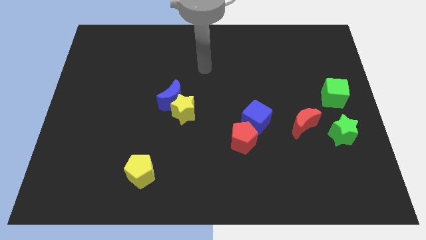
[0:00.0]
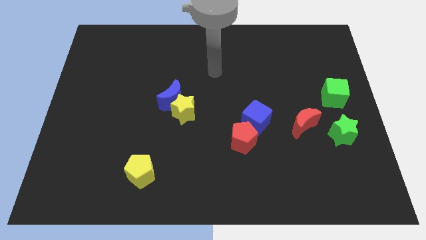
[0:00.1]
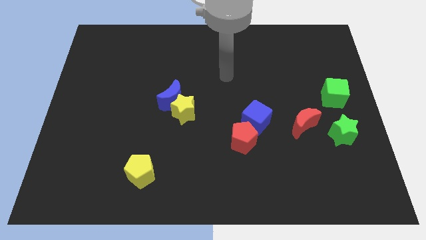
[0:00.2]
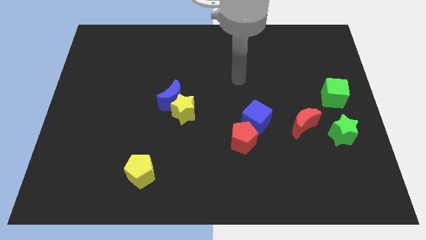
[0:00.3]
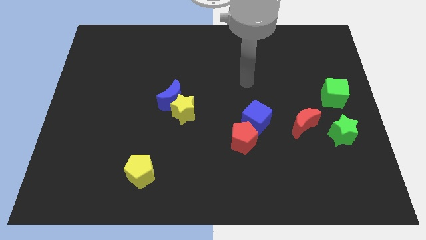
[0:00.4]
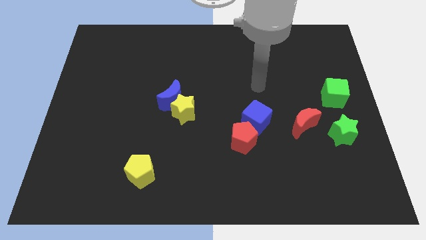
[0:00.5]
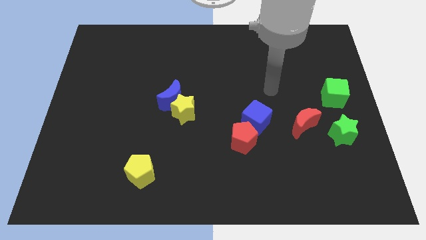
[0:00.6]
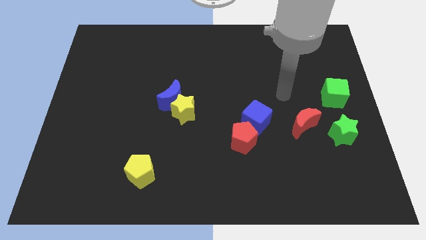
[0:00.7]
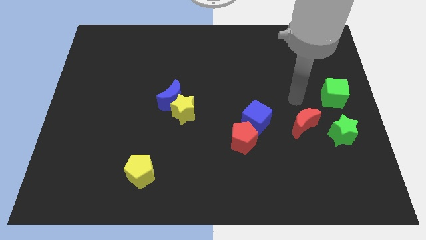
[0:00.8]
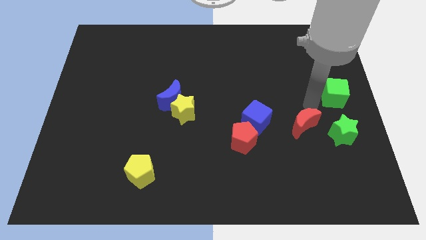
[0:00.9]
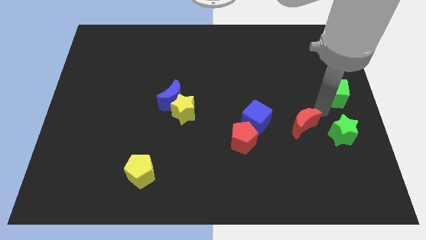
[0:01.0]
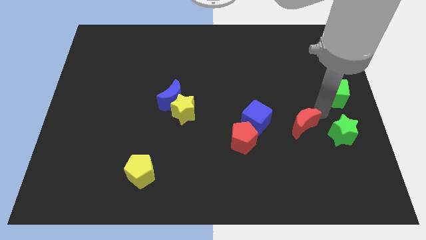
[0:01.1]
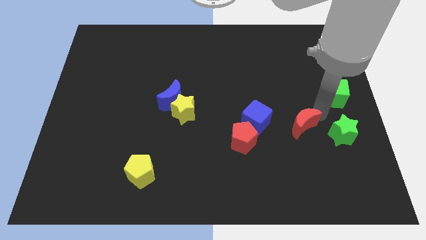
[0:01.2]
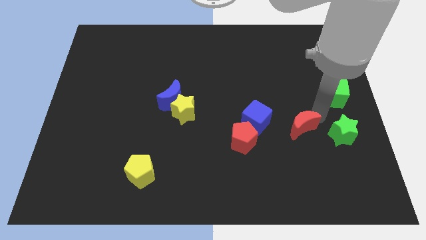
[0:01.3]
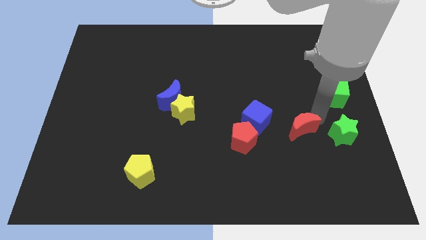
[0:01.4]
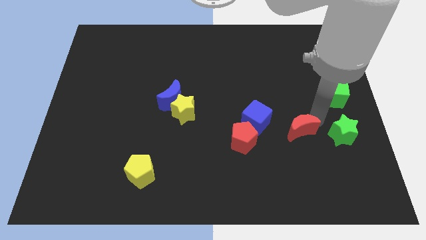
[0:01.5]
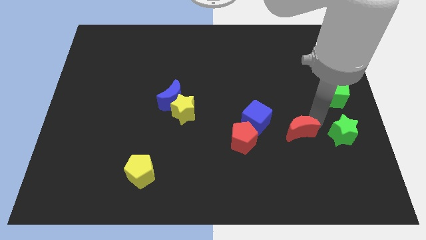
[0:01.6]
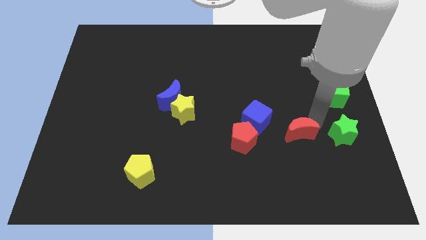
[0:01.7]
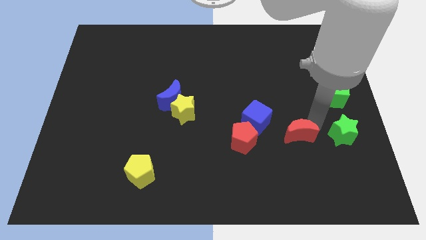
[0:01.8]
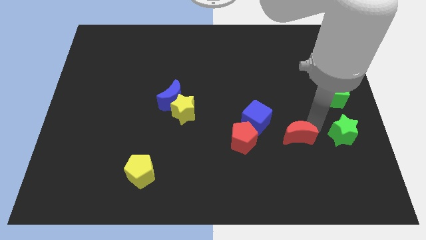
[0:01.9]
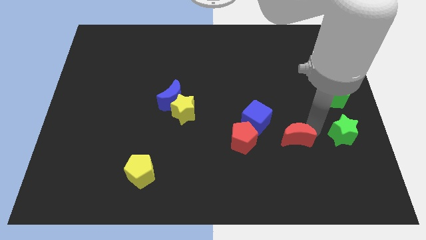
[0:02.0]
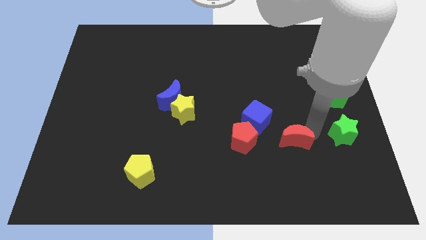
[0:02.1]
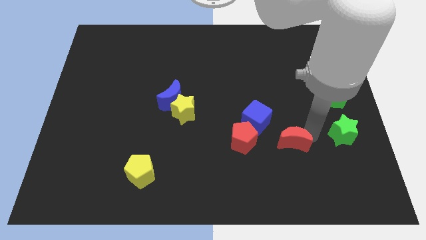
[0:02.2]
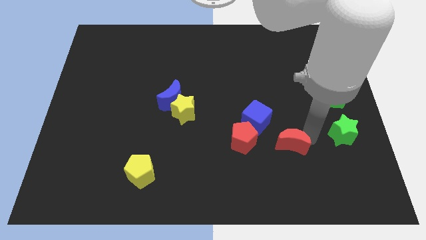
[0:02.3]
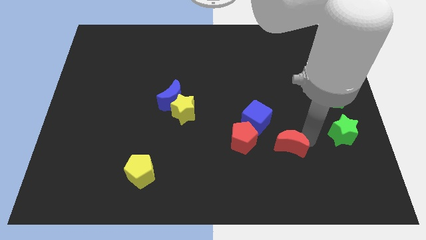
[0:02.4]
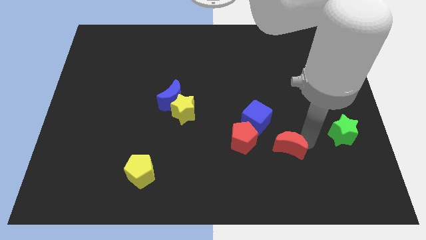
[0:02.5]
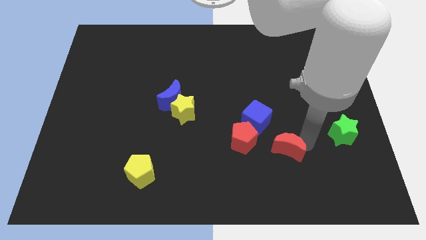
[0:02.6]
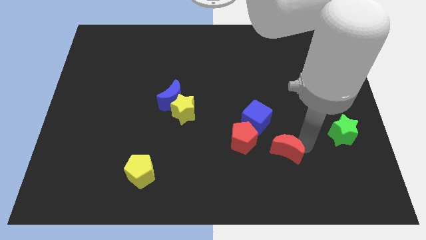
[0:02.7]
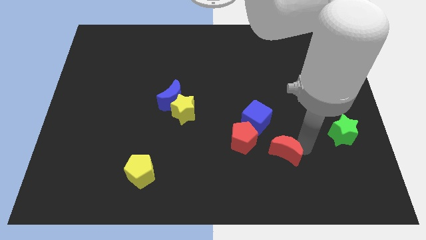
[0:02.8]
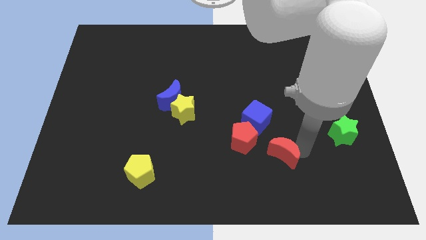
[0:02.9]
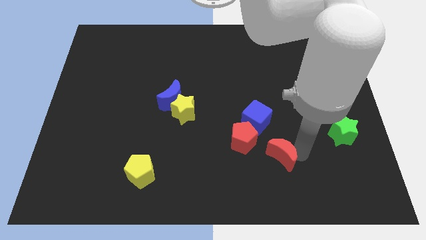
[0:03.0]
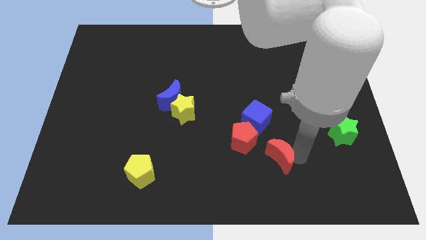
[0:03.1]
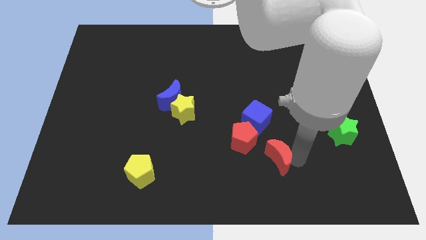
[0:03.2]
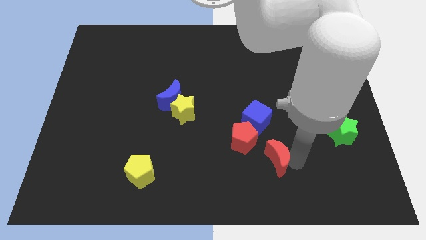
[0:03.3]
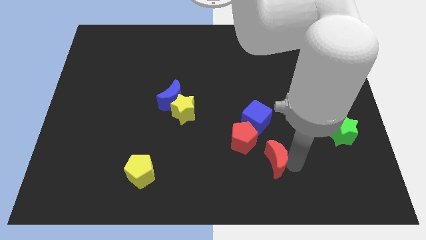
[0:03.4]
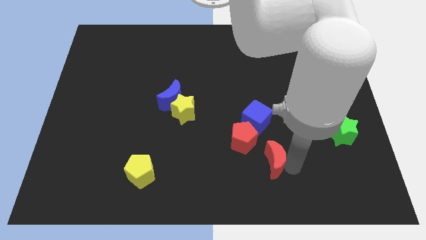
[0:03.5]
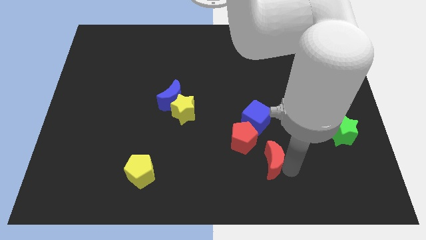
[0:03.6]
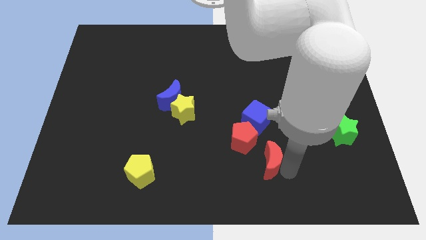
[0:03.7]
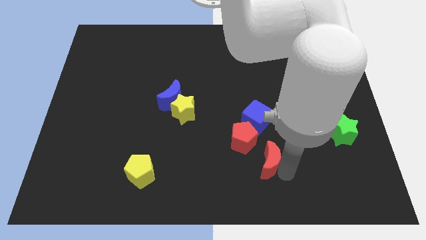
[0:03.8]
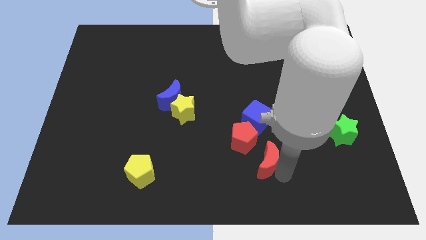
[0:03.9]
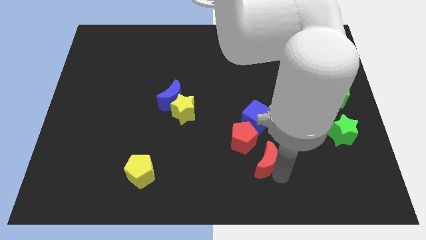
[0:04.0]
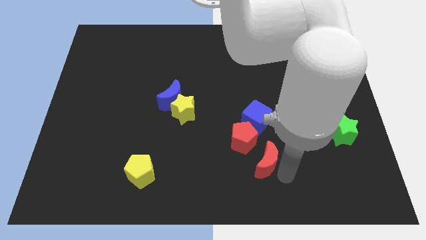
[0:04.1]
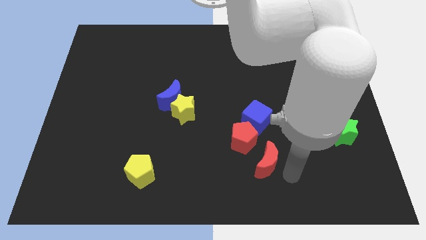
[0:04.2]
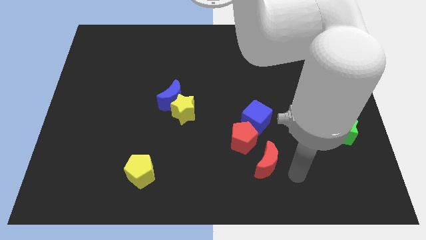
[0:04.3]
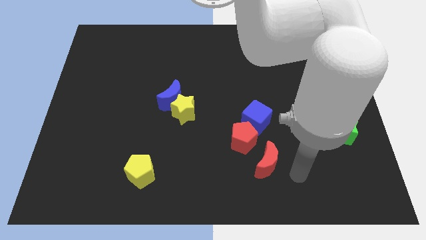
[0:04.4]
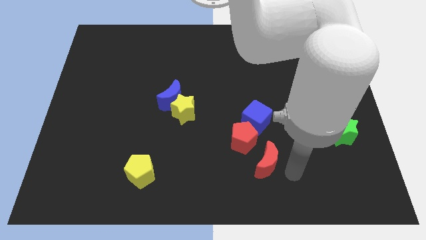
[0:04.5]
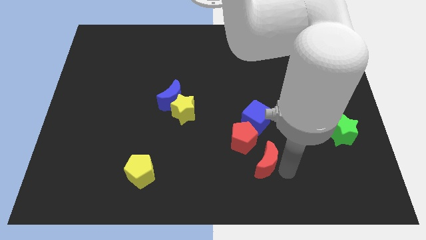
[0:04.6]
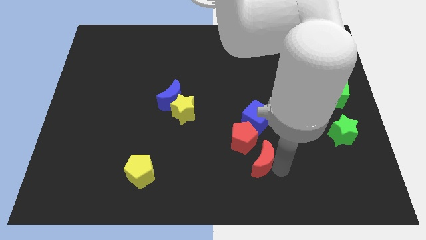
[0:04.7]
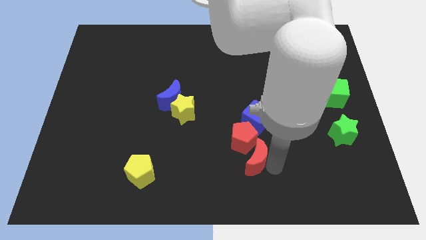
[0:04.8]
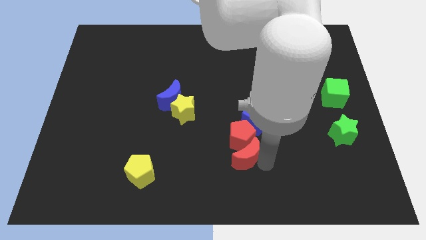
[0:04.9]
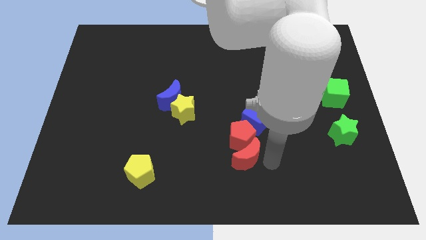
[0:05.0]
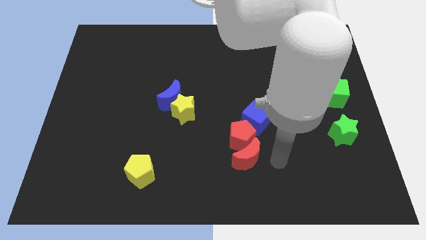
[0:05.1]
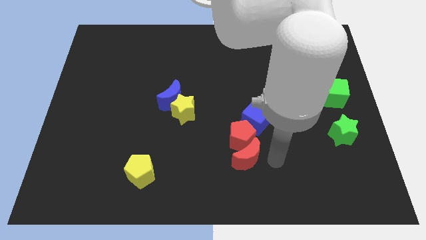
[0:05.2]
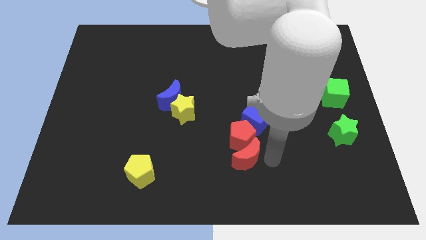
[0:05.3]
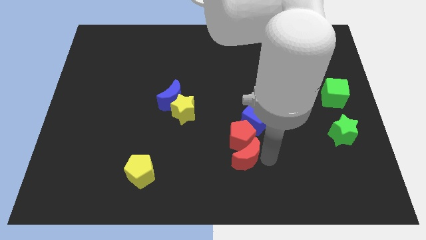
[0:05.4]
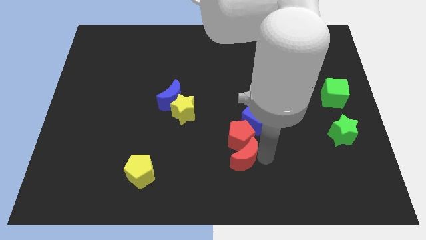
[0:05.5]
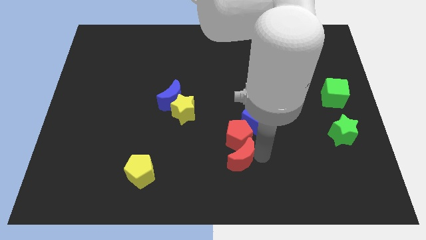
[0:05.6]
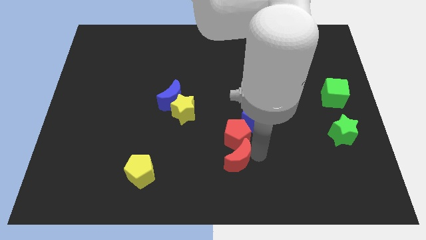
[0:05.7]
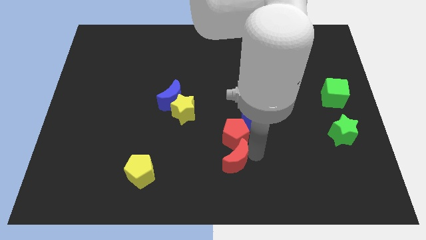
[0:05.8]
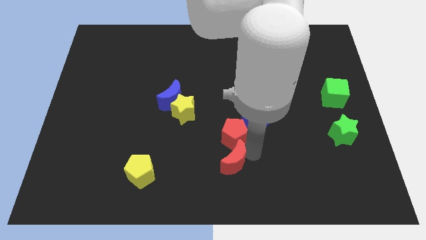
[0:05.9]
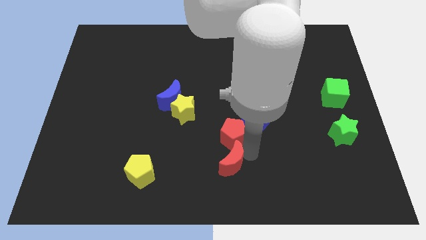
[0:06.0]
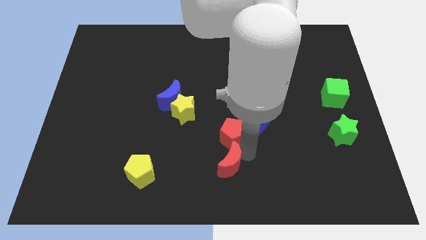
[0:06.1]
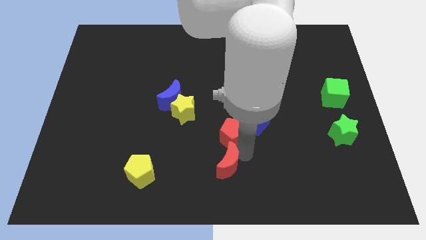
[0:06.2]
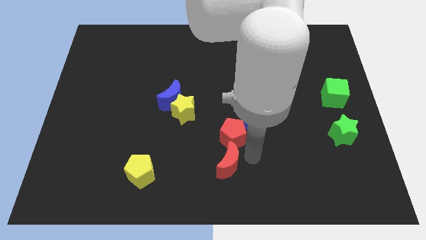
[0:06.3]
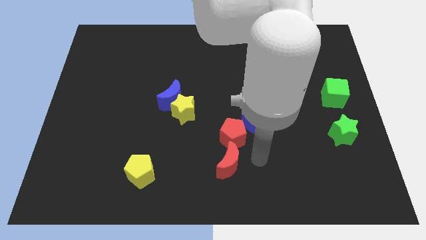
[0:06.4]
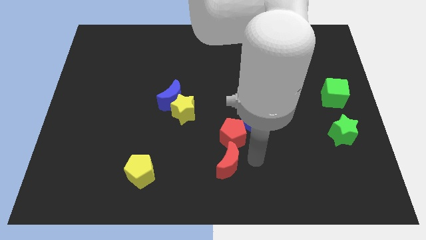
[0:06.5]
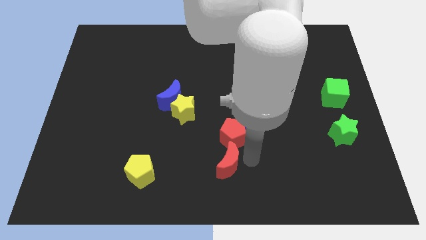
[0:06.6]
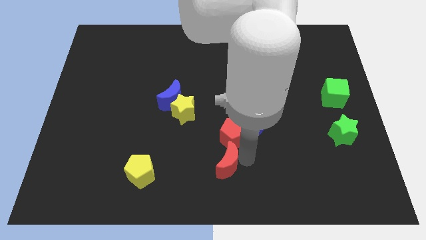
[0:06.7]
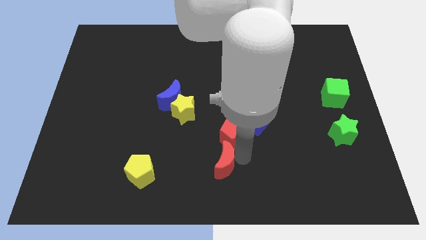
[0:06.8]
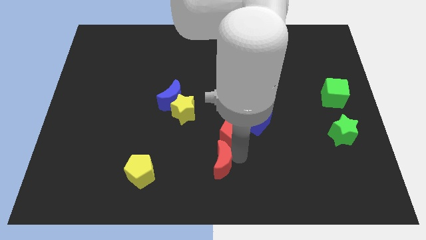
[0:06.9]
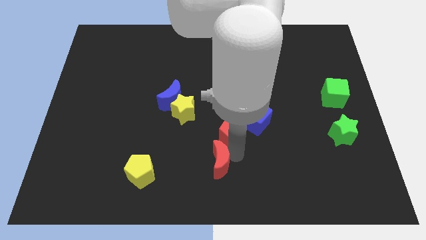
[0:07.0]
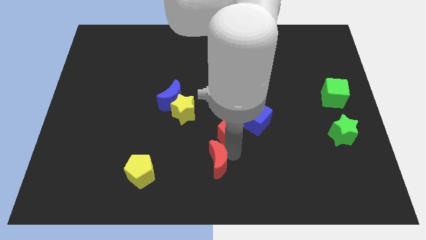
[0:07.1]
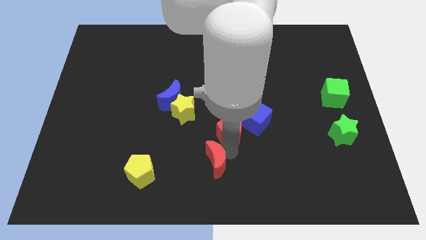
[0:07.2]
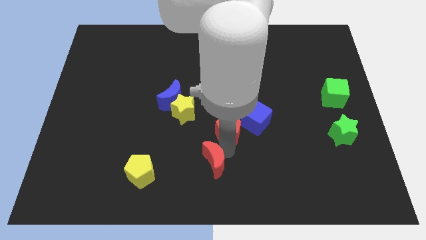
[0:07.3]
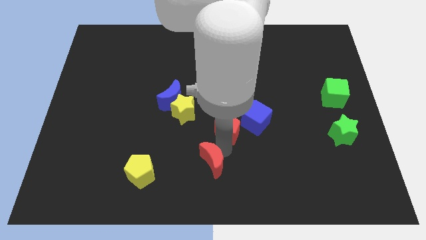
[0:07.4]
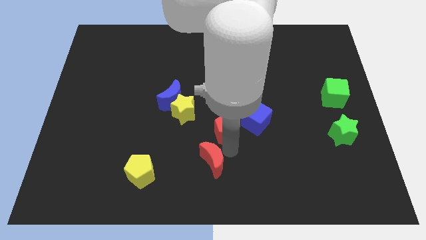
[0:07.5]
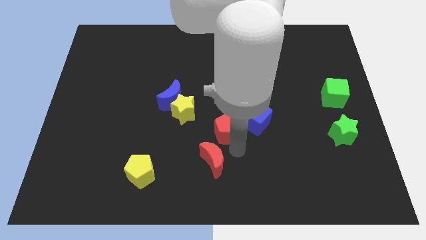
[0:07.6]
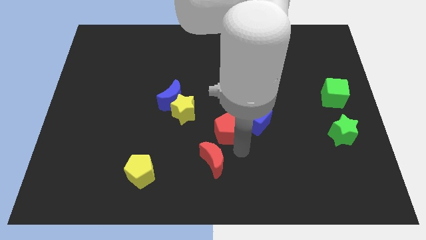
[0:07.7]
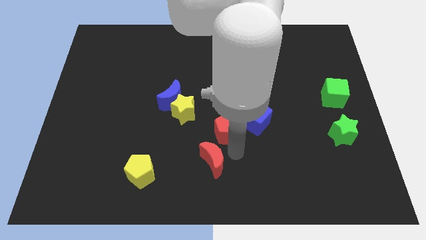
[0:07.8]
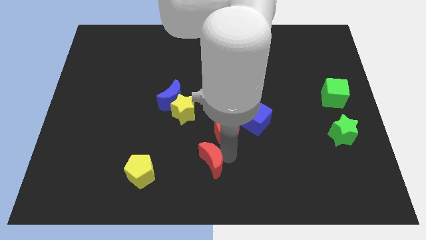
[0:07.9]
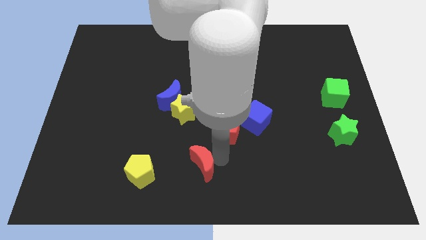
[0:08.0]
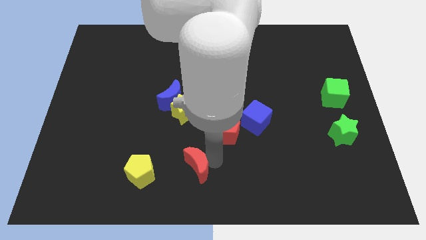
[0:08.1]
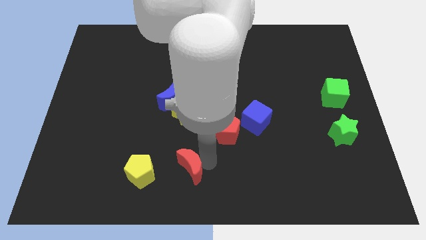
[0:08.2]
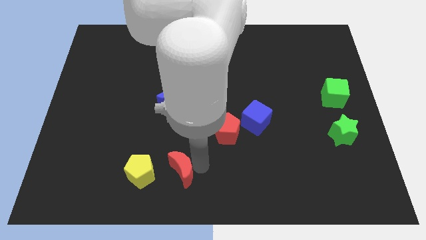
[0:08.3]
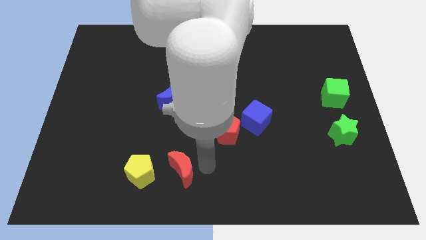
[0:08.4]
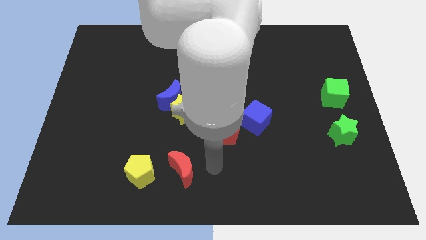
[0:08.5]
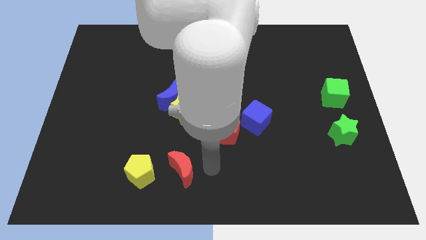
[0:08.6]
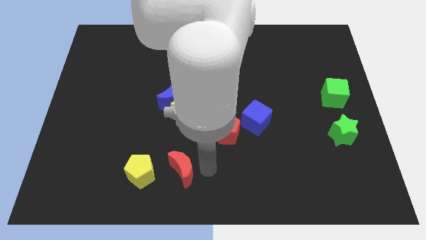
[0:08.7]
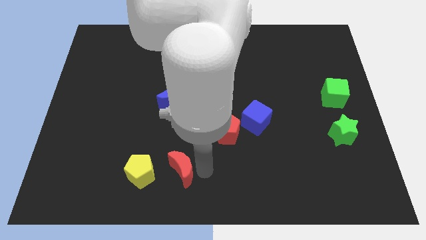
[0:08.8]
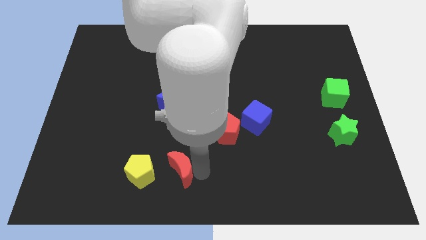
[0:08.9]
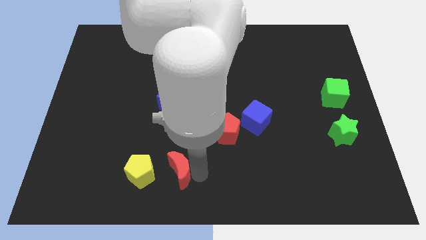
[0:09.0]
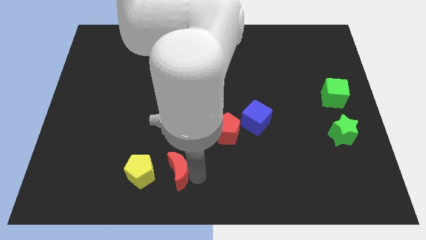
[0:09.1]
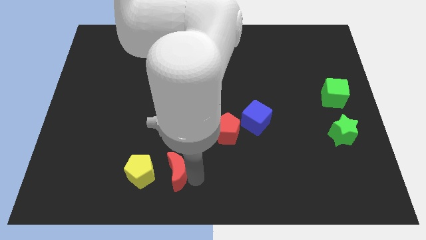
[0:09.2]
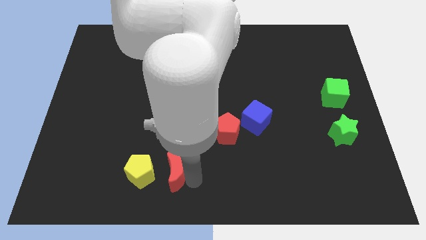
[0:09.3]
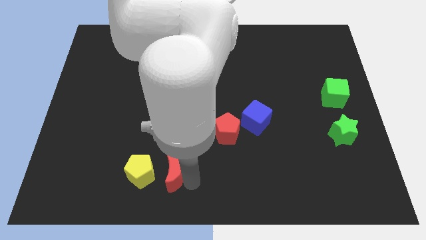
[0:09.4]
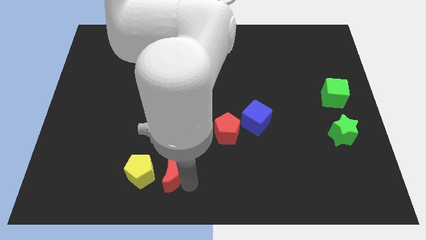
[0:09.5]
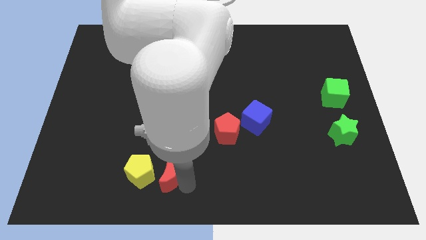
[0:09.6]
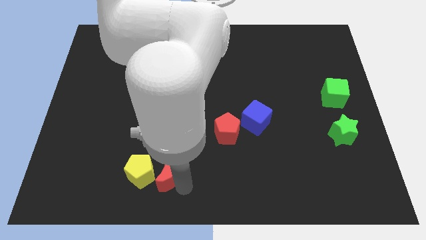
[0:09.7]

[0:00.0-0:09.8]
push the red moon towards the yellow pentagon
